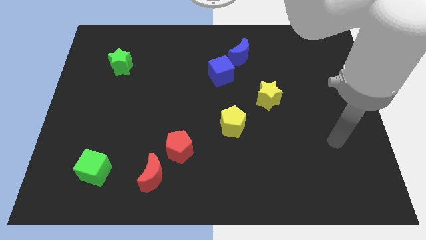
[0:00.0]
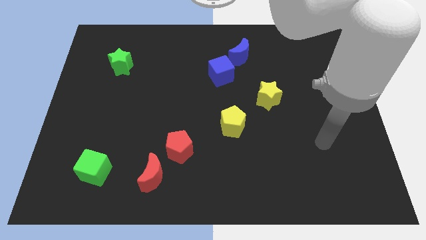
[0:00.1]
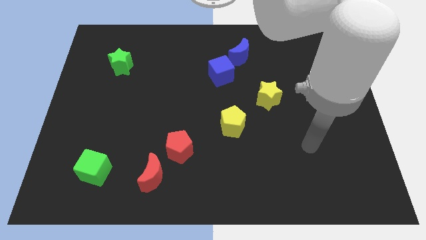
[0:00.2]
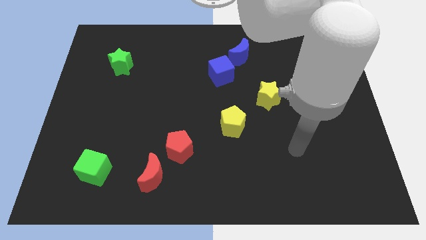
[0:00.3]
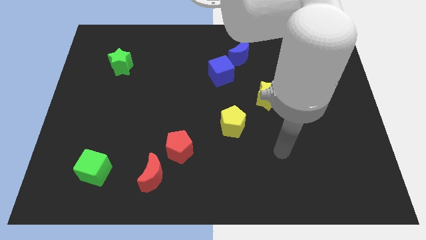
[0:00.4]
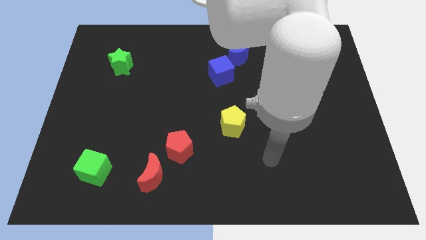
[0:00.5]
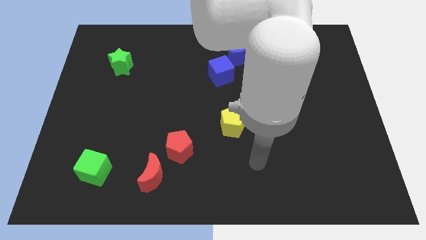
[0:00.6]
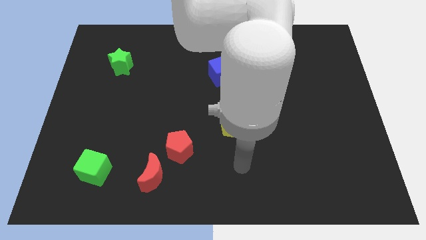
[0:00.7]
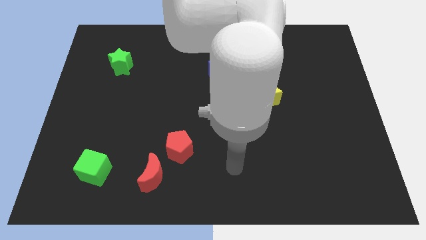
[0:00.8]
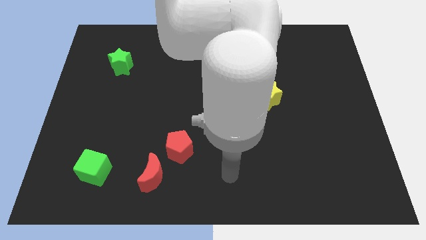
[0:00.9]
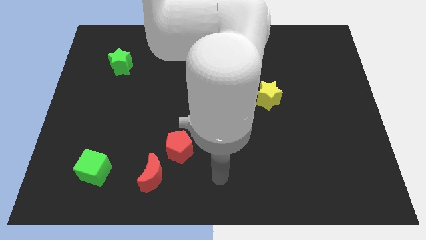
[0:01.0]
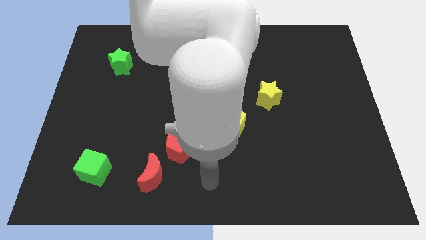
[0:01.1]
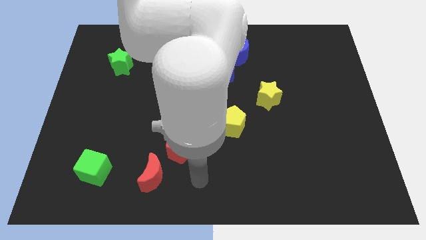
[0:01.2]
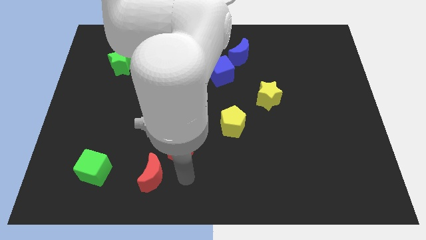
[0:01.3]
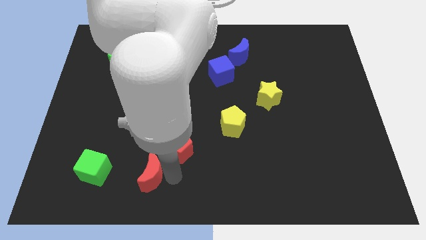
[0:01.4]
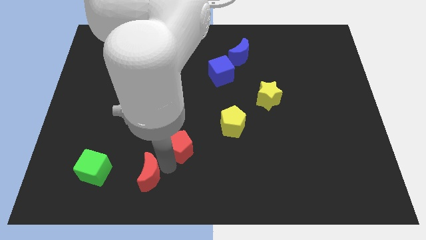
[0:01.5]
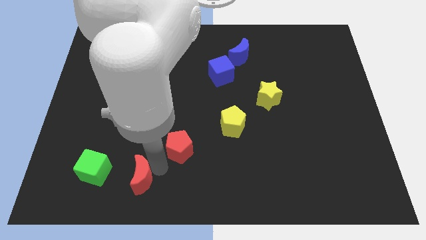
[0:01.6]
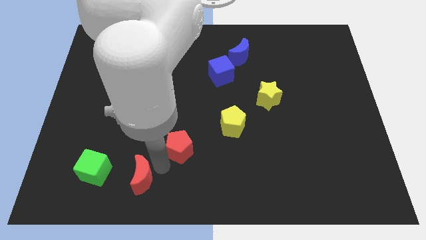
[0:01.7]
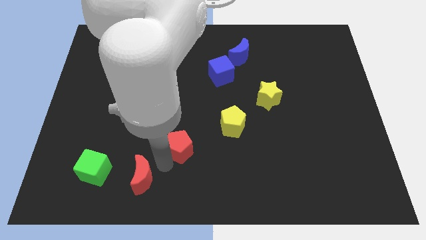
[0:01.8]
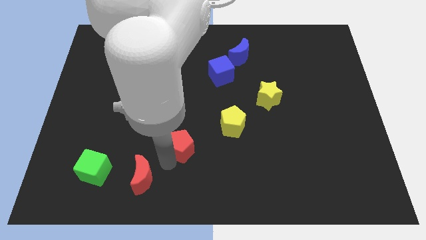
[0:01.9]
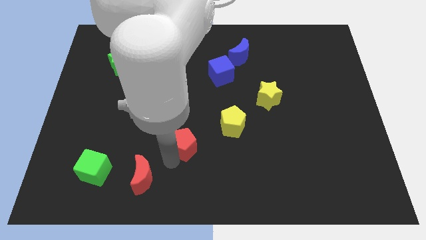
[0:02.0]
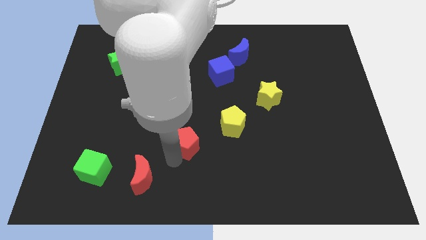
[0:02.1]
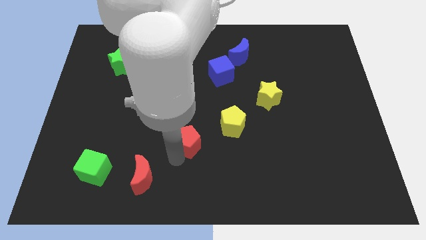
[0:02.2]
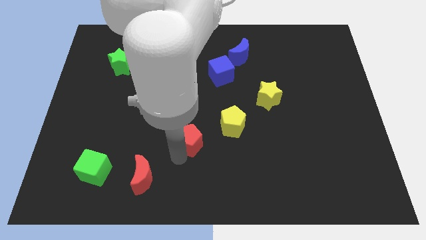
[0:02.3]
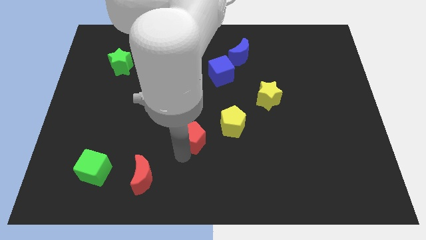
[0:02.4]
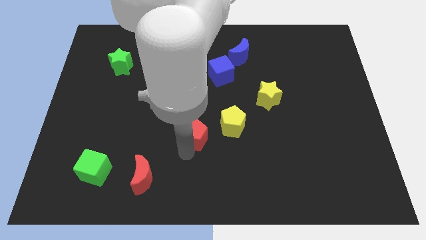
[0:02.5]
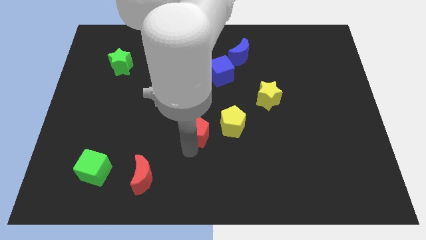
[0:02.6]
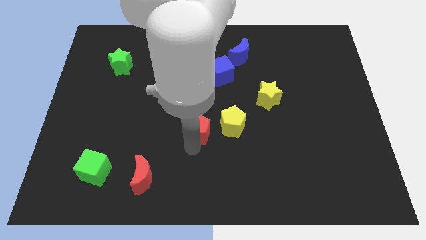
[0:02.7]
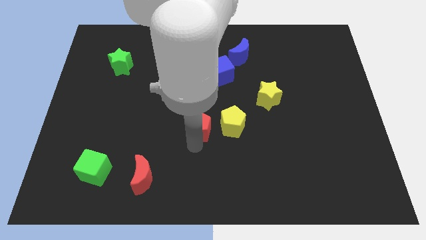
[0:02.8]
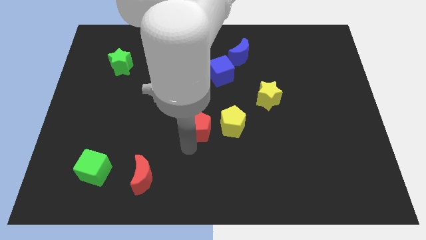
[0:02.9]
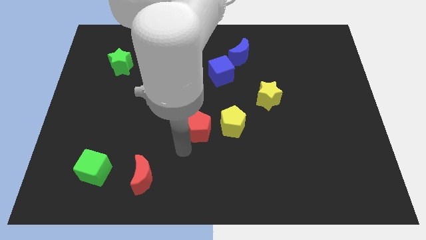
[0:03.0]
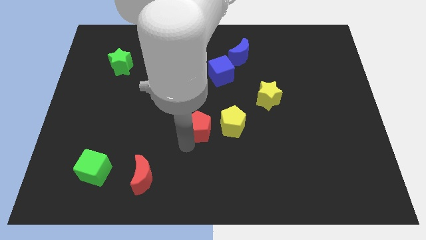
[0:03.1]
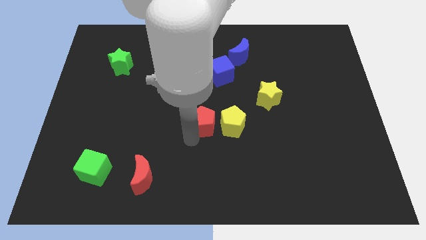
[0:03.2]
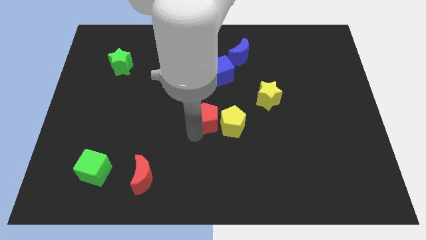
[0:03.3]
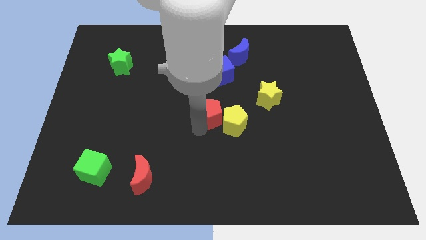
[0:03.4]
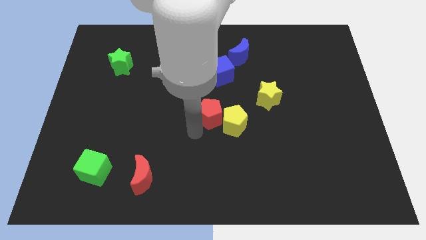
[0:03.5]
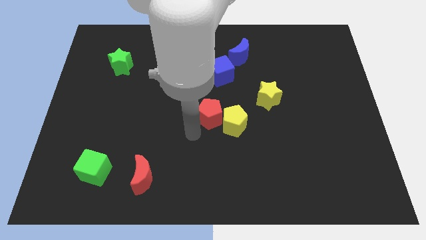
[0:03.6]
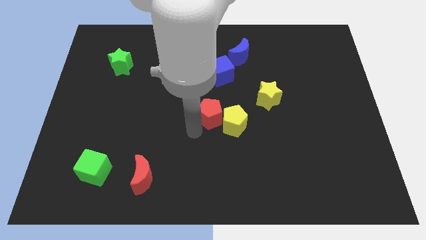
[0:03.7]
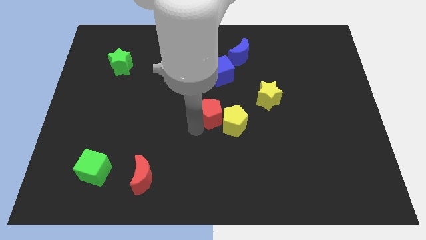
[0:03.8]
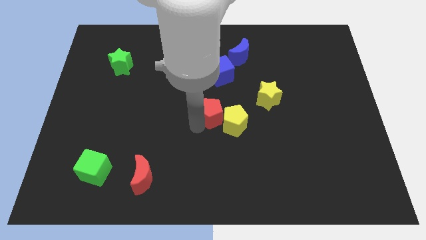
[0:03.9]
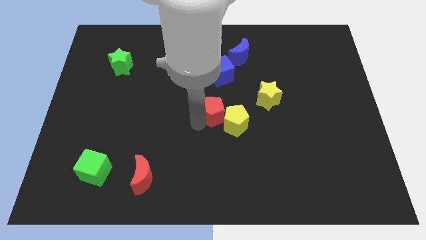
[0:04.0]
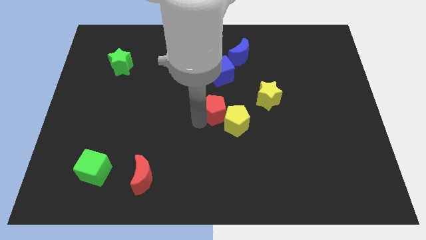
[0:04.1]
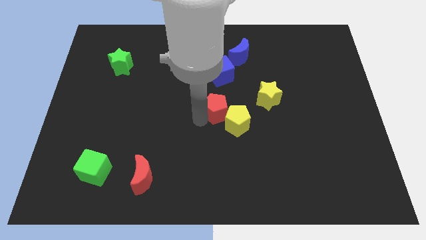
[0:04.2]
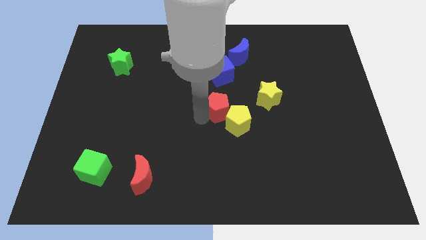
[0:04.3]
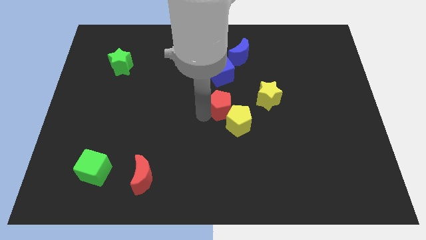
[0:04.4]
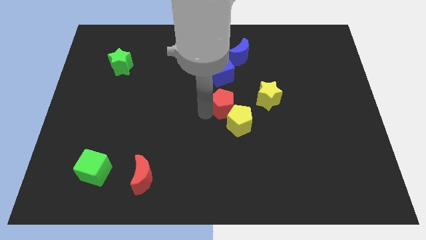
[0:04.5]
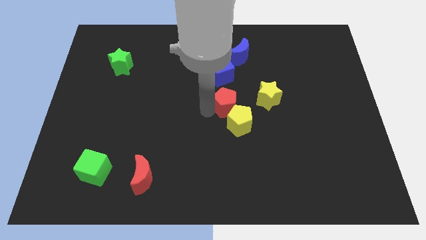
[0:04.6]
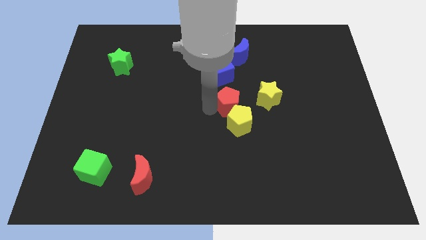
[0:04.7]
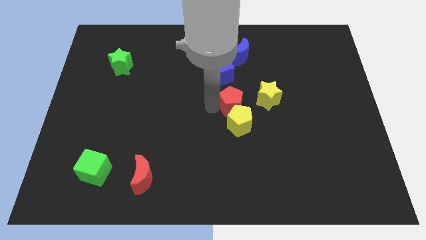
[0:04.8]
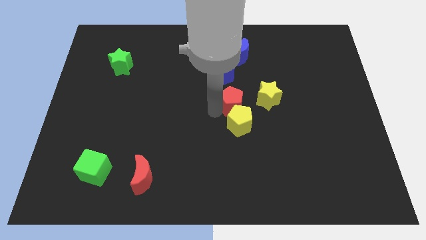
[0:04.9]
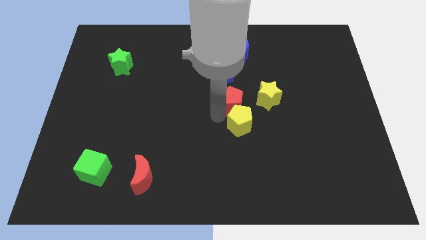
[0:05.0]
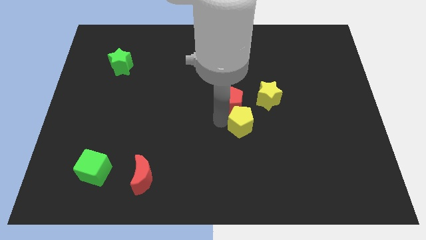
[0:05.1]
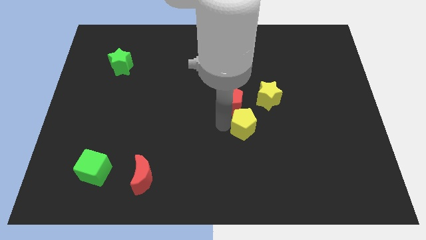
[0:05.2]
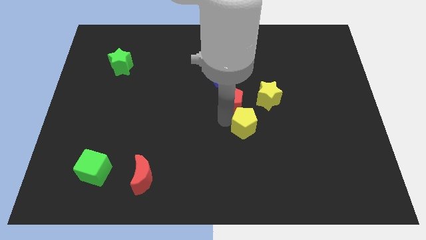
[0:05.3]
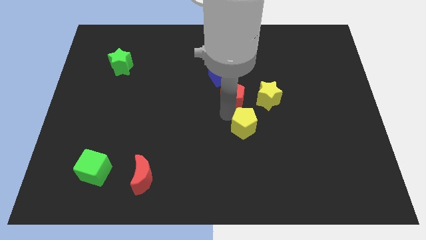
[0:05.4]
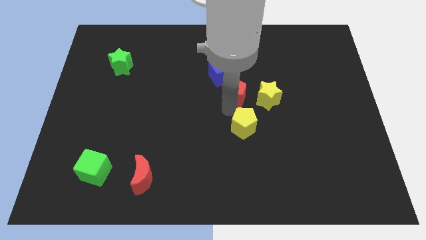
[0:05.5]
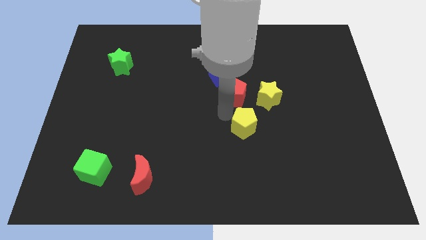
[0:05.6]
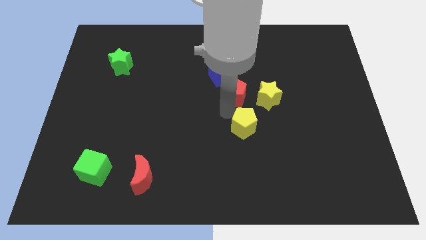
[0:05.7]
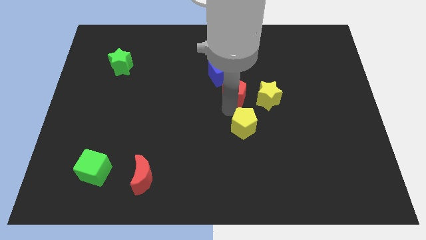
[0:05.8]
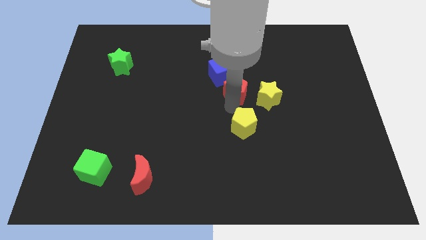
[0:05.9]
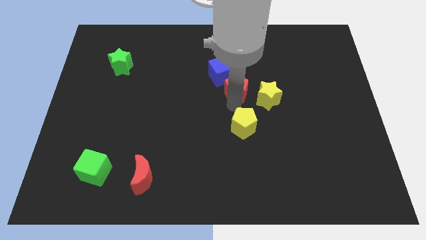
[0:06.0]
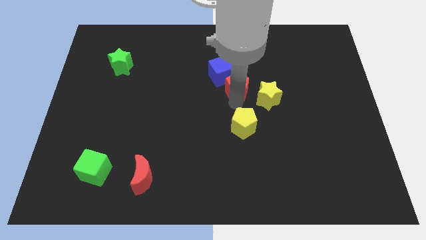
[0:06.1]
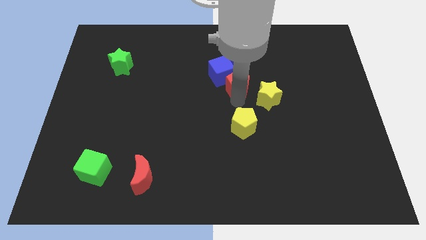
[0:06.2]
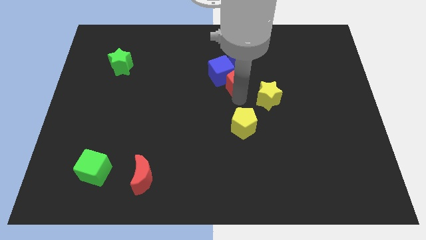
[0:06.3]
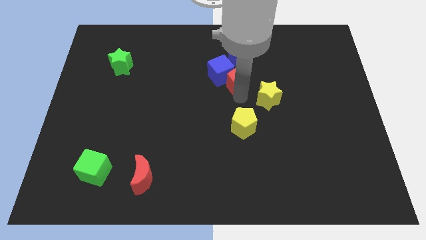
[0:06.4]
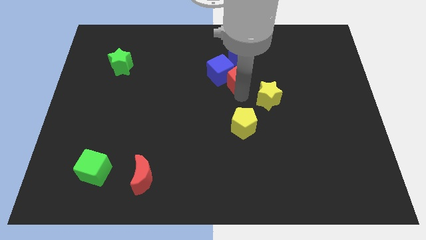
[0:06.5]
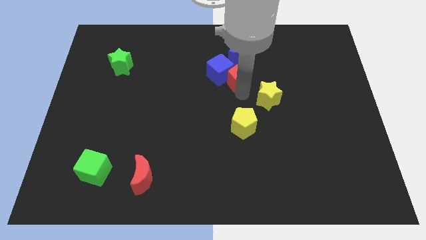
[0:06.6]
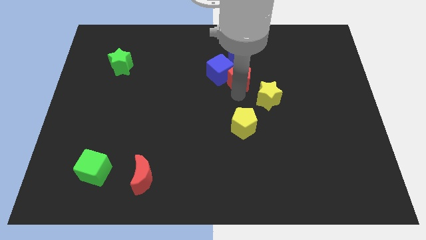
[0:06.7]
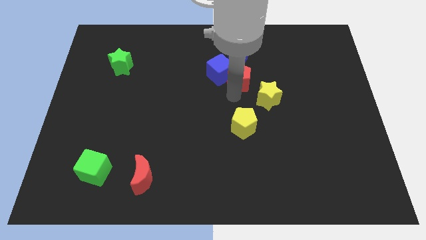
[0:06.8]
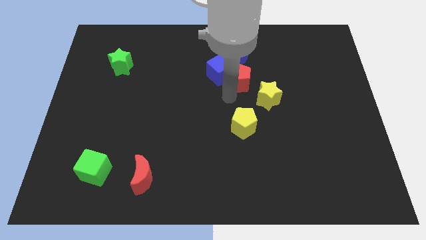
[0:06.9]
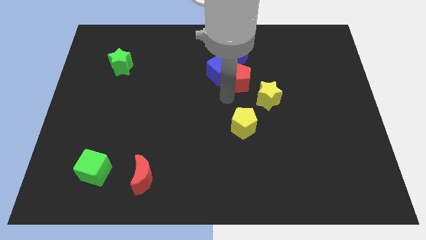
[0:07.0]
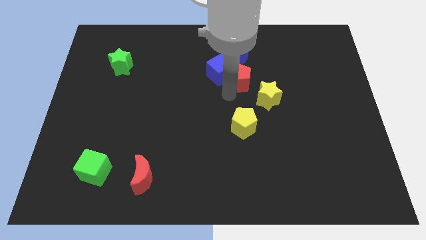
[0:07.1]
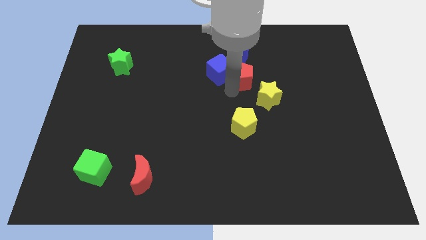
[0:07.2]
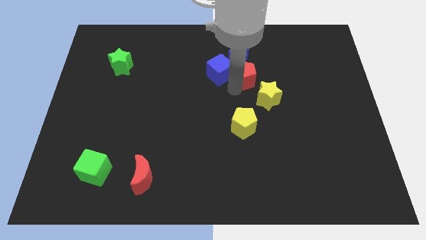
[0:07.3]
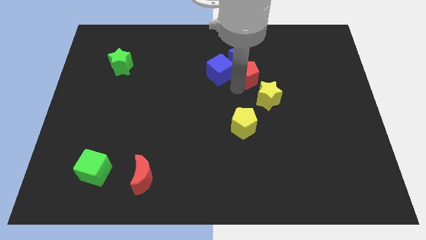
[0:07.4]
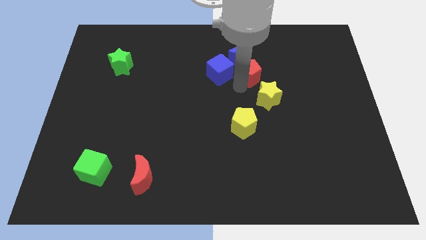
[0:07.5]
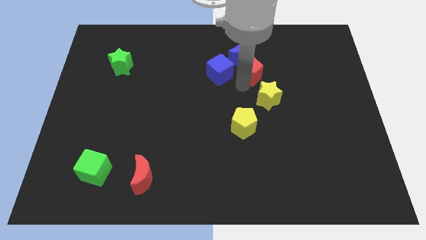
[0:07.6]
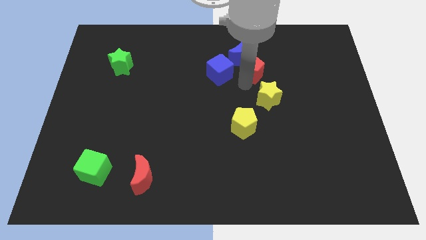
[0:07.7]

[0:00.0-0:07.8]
slide the red pentagon next to the blue moon
